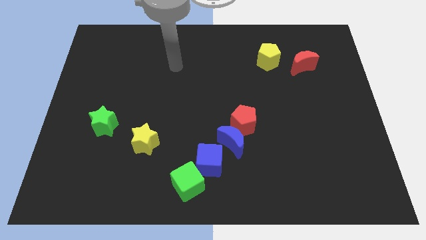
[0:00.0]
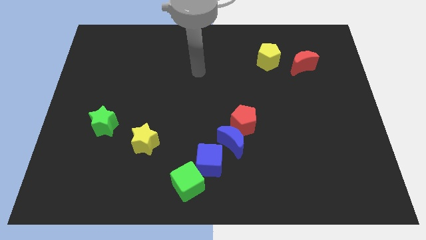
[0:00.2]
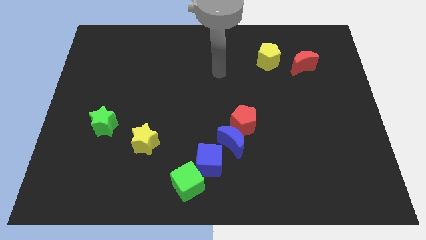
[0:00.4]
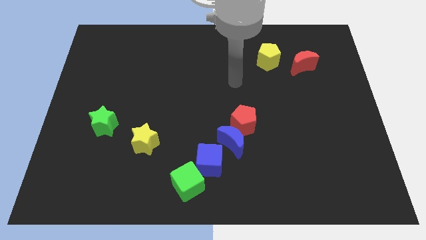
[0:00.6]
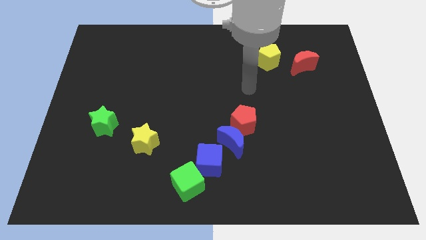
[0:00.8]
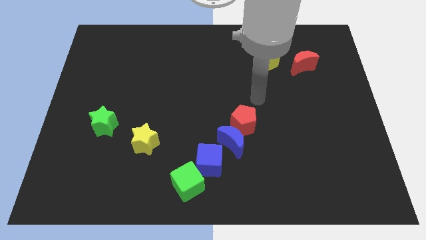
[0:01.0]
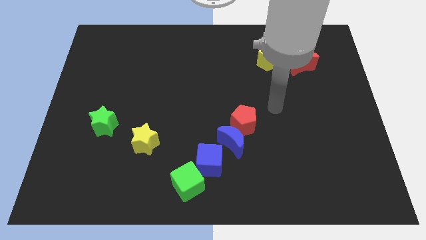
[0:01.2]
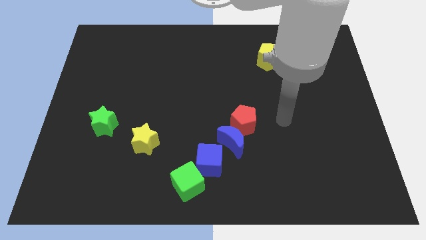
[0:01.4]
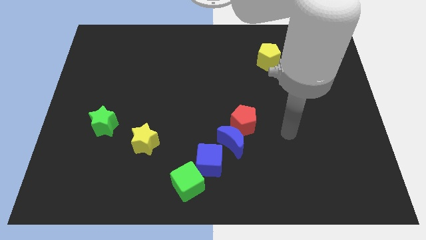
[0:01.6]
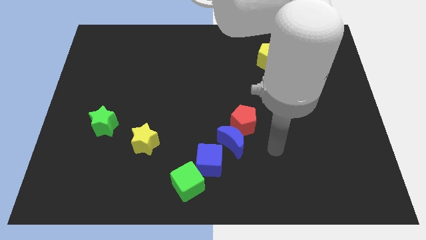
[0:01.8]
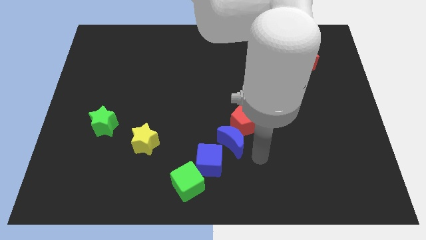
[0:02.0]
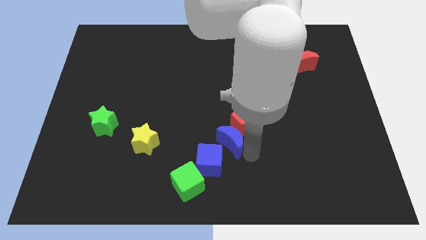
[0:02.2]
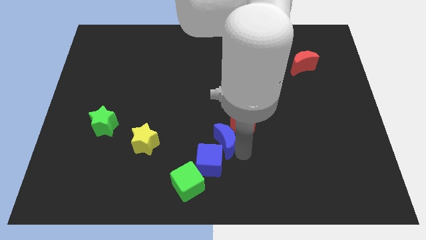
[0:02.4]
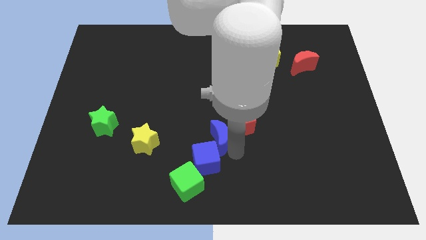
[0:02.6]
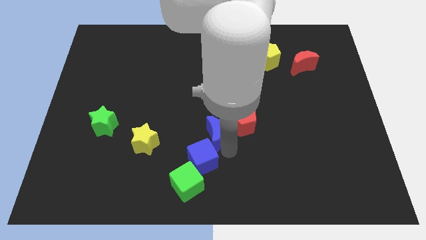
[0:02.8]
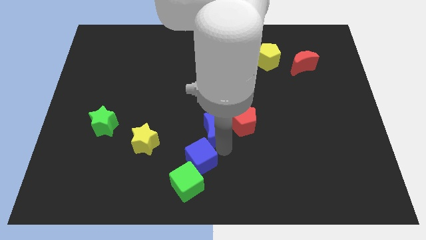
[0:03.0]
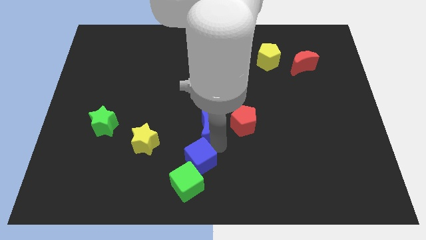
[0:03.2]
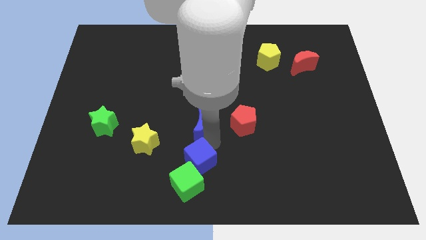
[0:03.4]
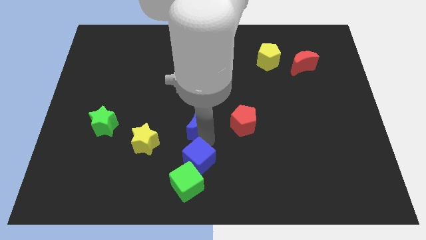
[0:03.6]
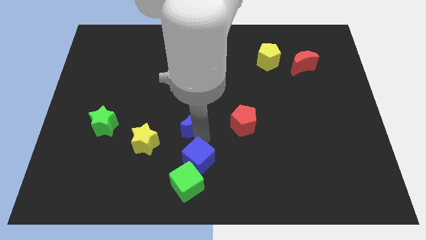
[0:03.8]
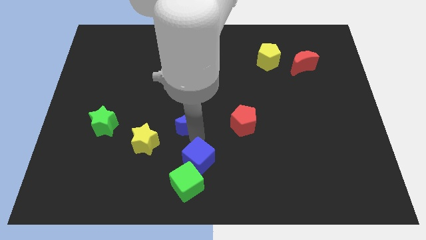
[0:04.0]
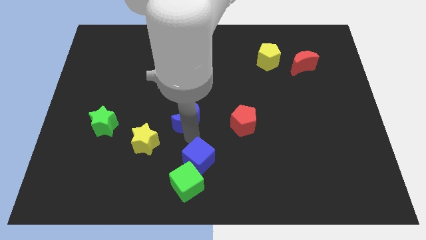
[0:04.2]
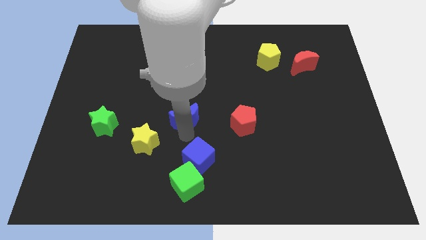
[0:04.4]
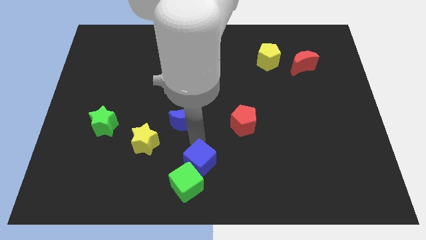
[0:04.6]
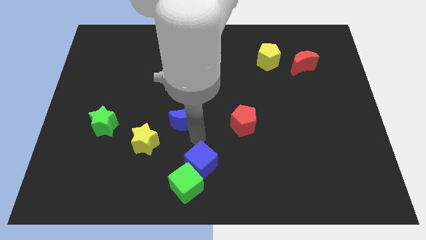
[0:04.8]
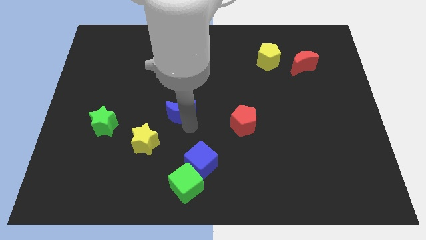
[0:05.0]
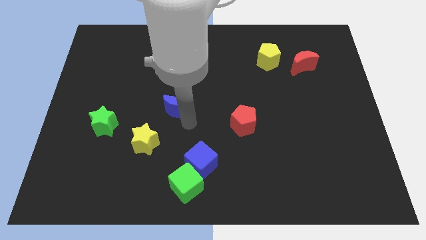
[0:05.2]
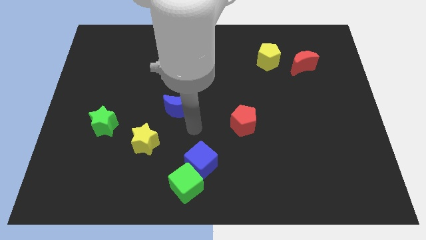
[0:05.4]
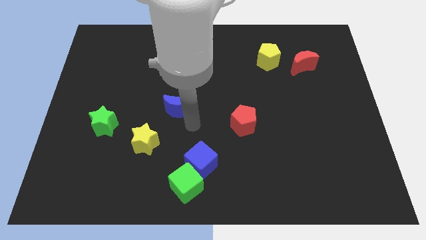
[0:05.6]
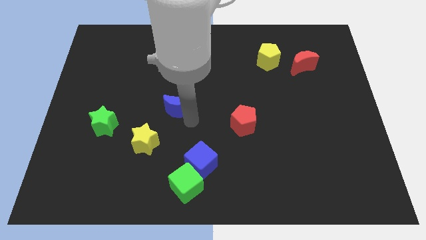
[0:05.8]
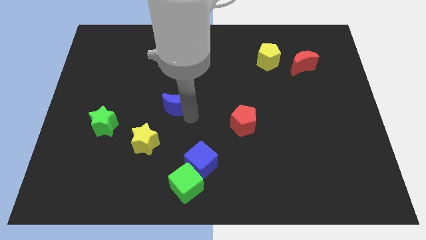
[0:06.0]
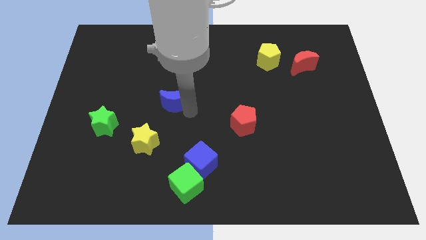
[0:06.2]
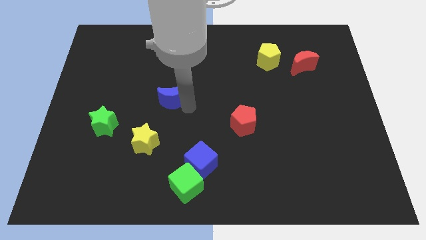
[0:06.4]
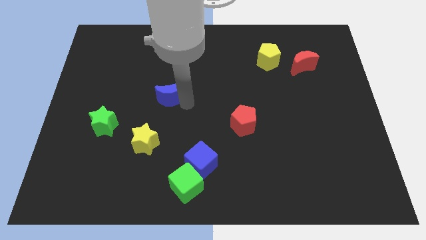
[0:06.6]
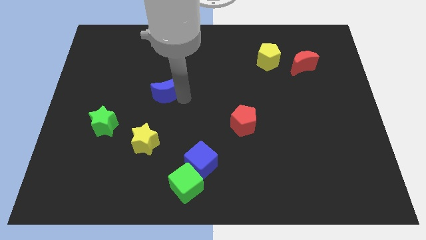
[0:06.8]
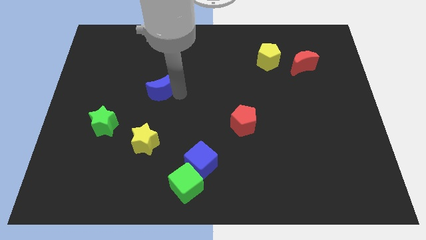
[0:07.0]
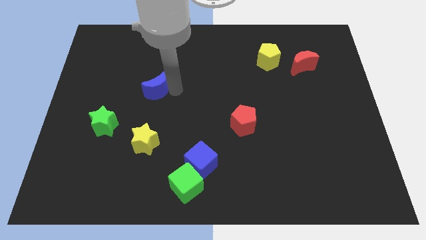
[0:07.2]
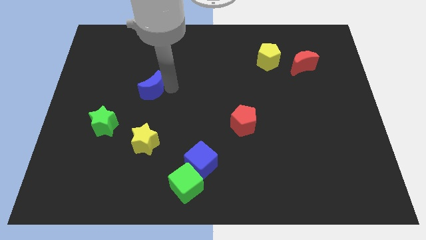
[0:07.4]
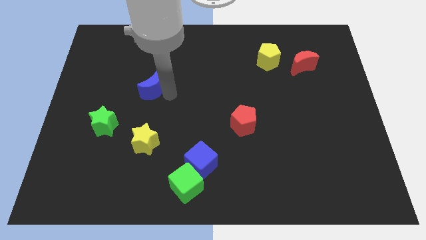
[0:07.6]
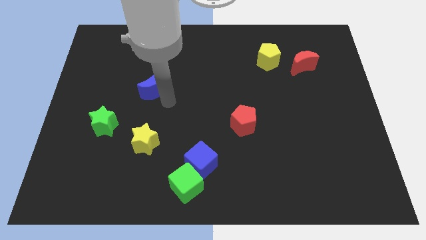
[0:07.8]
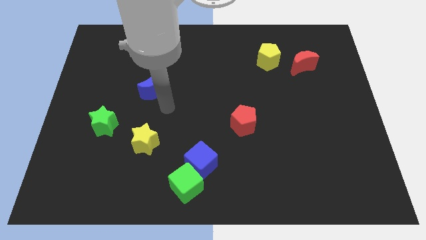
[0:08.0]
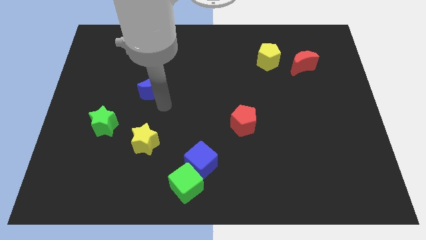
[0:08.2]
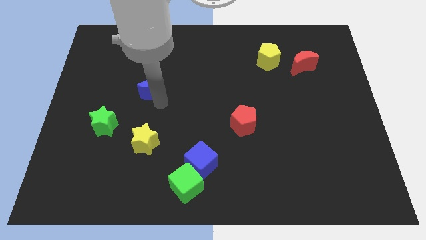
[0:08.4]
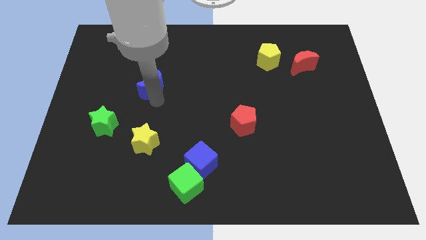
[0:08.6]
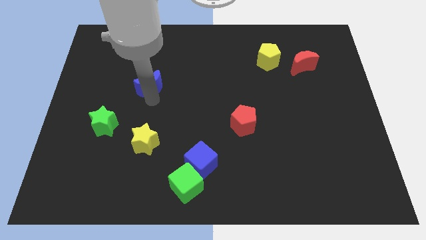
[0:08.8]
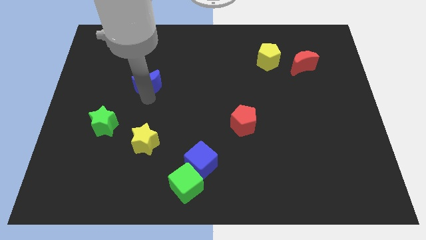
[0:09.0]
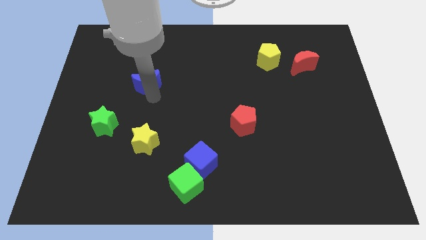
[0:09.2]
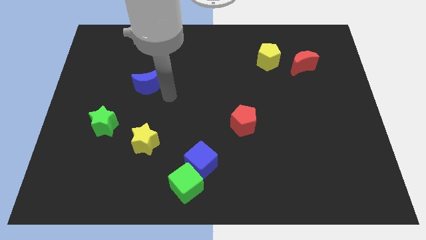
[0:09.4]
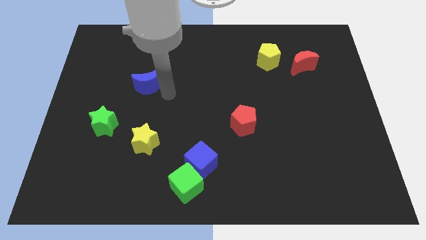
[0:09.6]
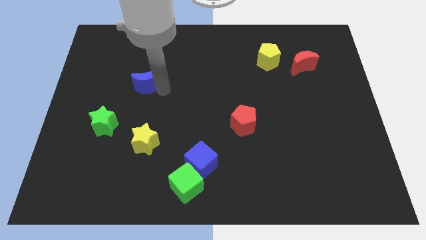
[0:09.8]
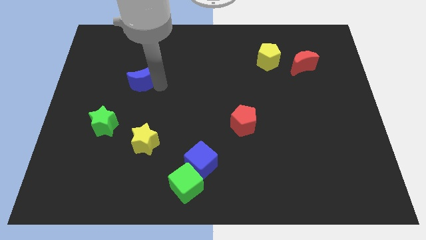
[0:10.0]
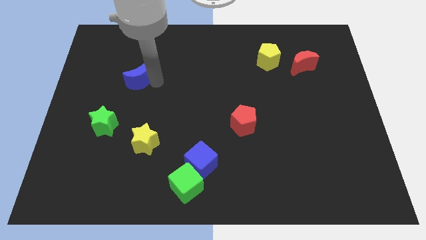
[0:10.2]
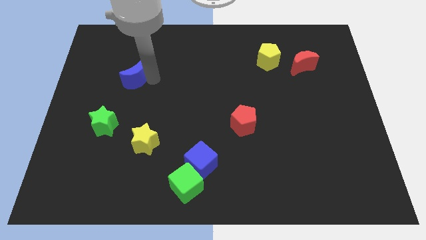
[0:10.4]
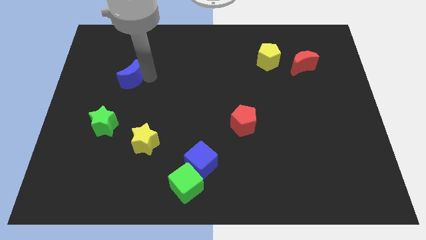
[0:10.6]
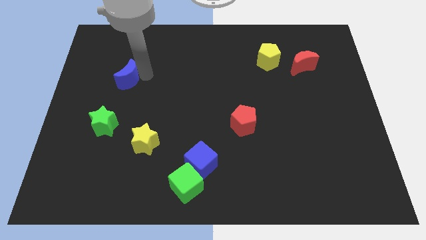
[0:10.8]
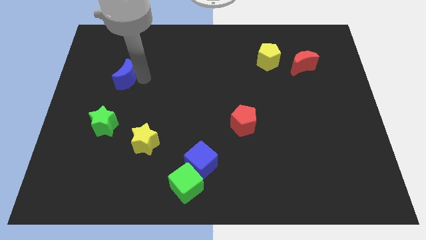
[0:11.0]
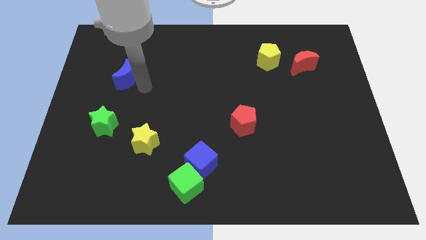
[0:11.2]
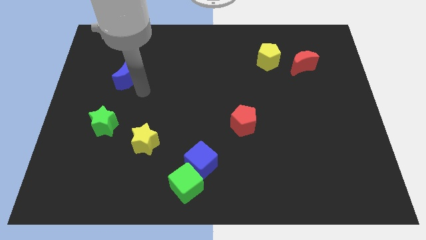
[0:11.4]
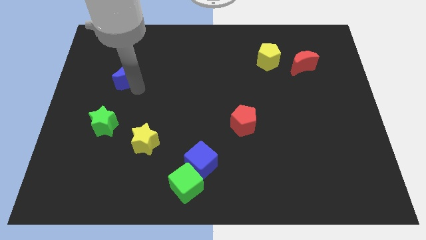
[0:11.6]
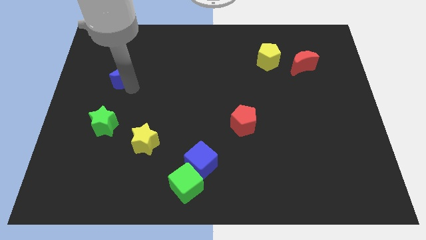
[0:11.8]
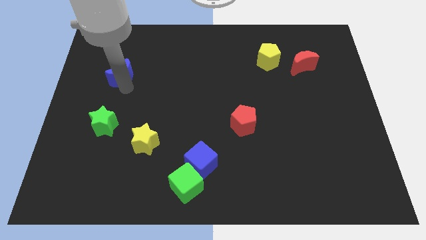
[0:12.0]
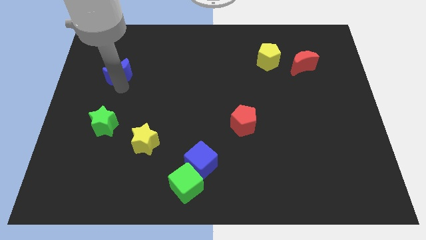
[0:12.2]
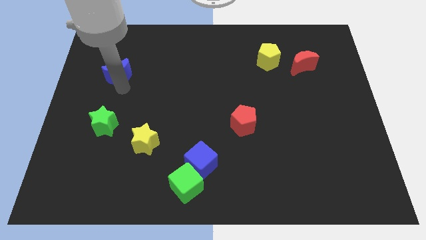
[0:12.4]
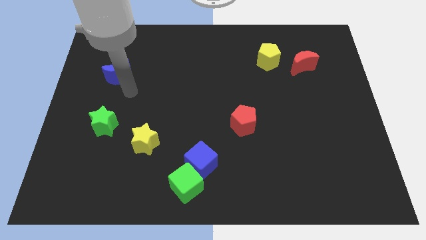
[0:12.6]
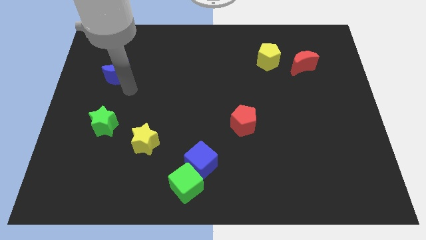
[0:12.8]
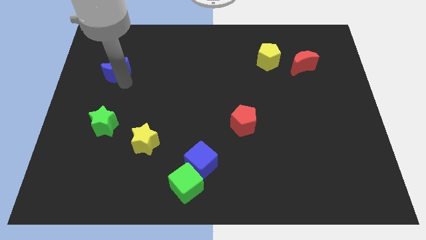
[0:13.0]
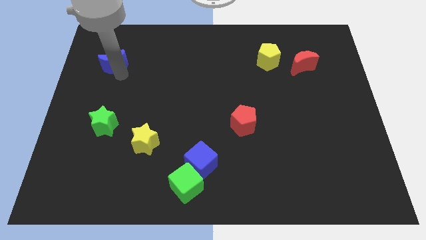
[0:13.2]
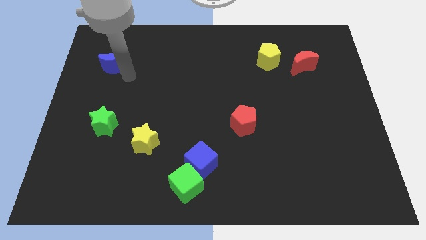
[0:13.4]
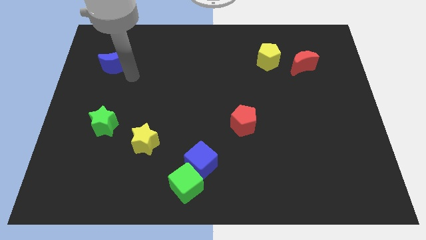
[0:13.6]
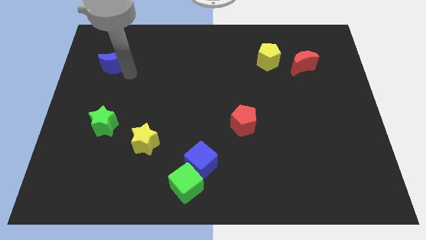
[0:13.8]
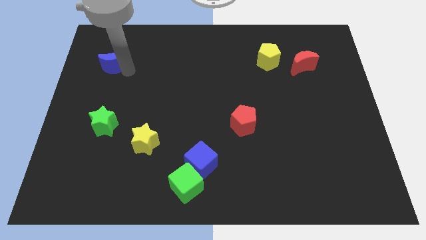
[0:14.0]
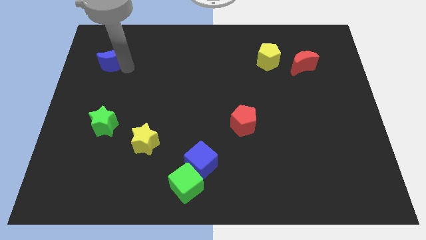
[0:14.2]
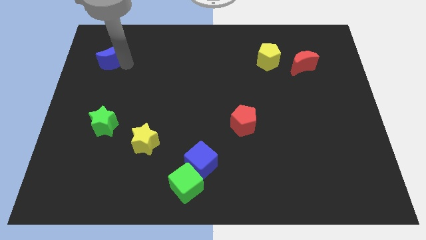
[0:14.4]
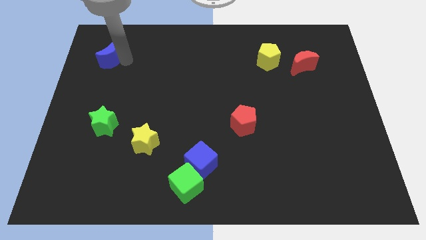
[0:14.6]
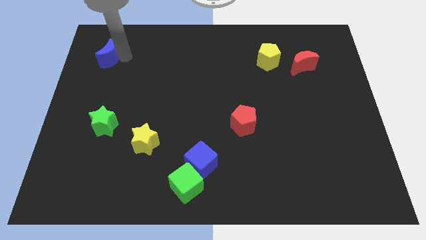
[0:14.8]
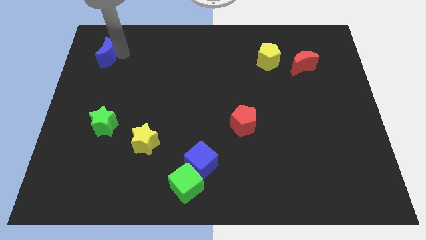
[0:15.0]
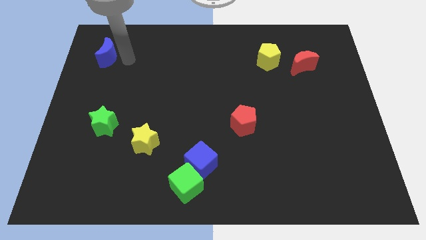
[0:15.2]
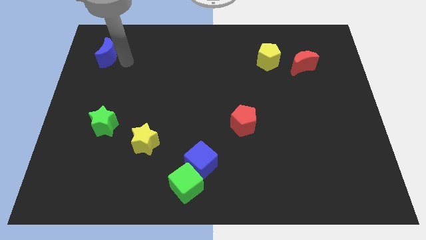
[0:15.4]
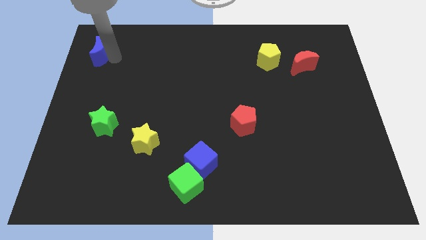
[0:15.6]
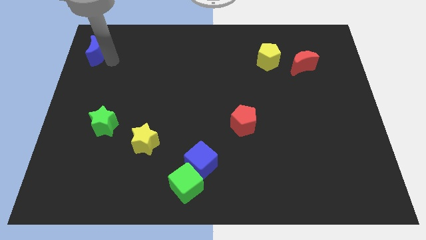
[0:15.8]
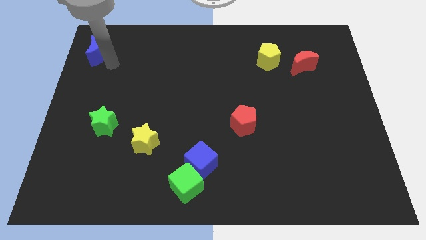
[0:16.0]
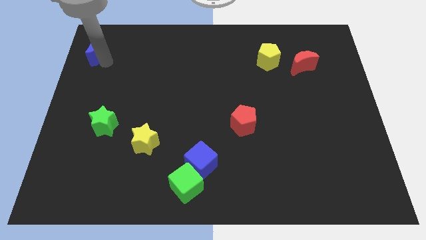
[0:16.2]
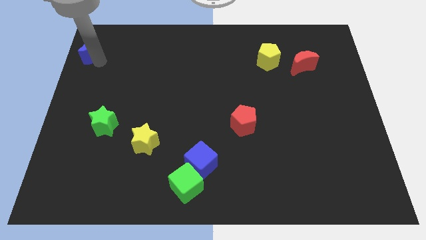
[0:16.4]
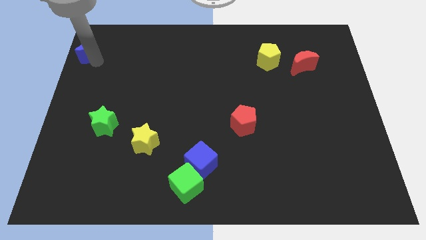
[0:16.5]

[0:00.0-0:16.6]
slide the blue moon to the top left
